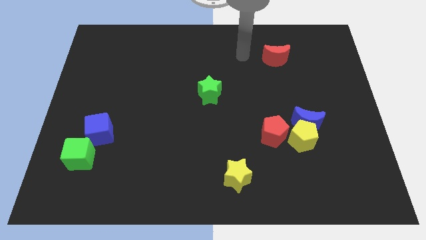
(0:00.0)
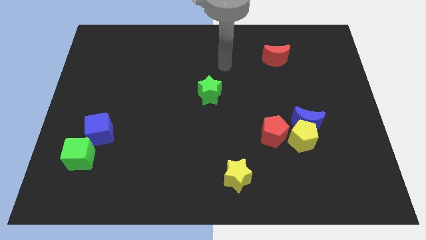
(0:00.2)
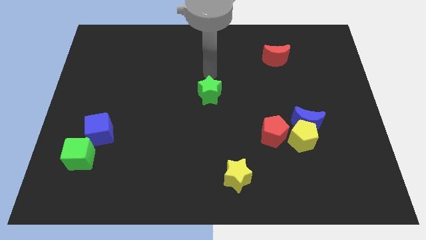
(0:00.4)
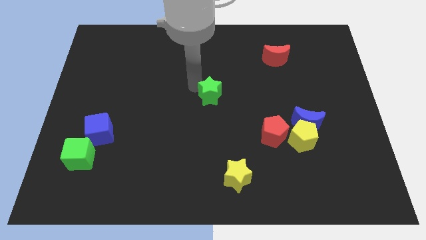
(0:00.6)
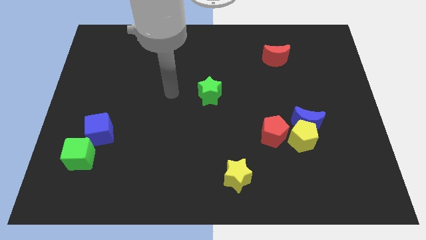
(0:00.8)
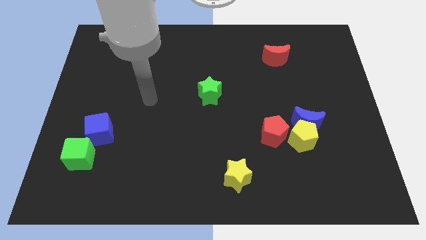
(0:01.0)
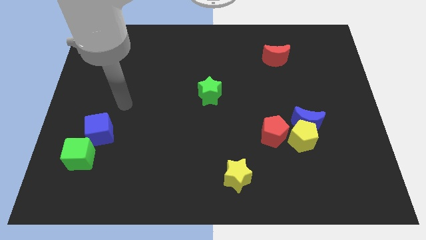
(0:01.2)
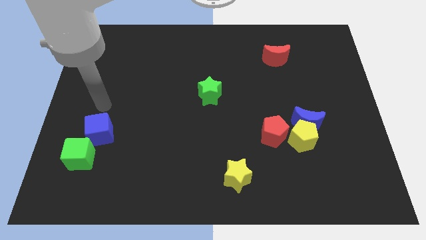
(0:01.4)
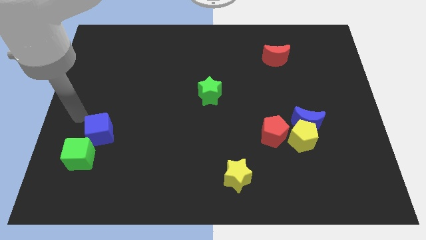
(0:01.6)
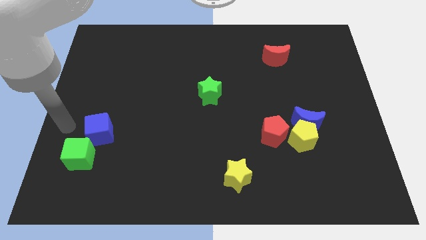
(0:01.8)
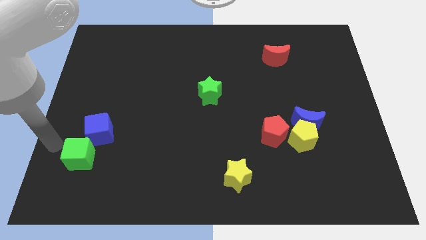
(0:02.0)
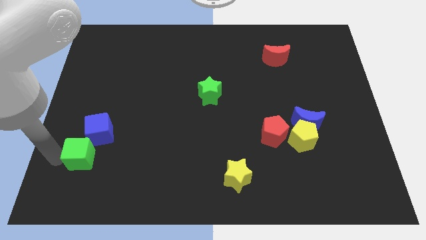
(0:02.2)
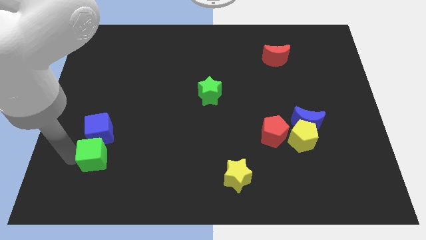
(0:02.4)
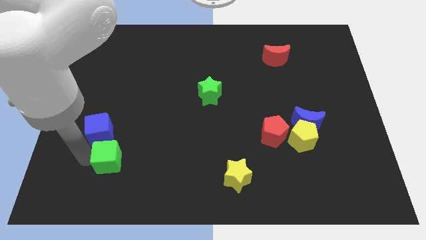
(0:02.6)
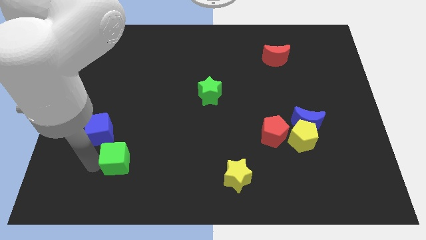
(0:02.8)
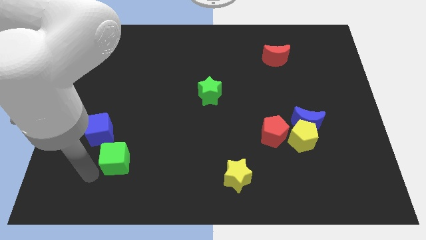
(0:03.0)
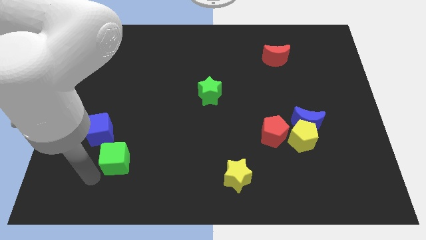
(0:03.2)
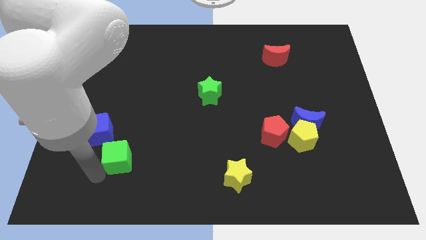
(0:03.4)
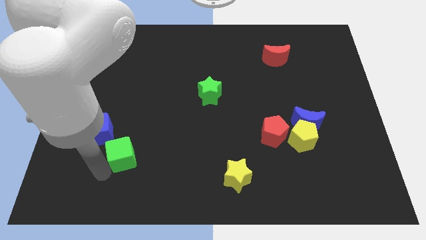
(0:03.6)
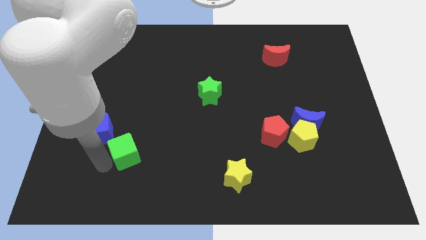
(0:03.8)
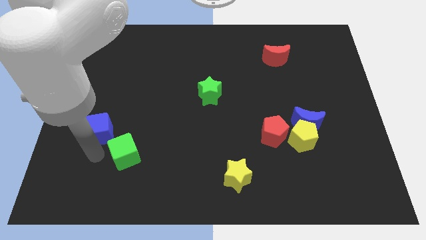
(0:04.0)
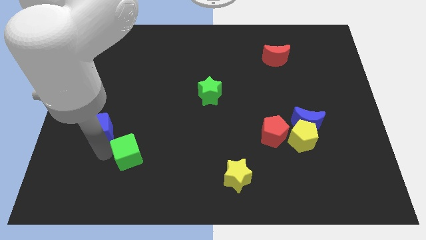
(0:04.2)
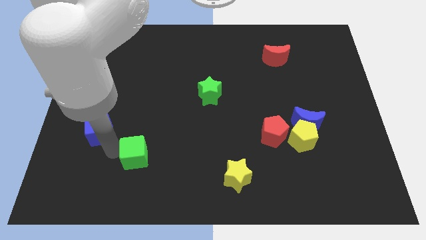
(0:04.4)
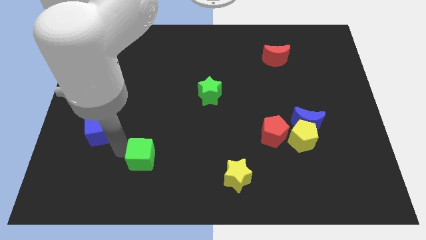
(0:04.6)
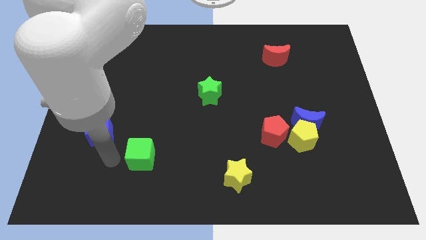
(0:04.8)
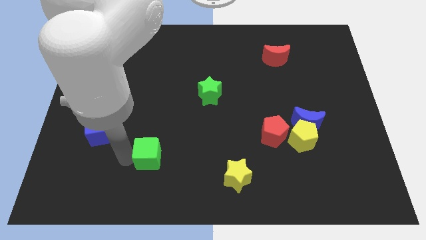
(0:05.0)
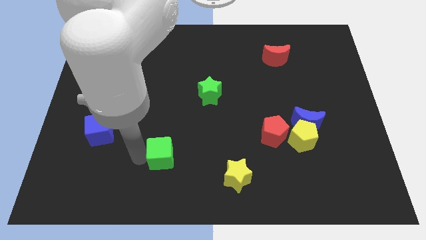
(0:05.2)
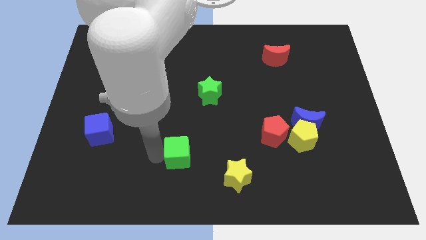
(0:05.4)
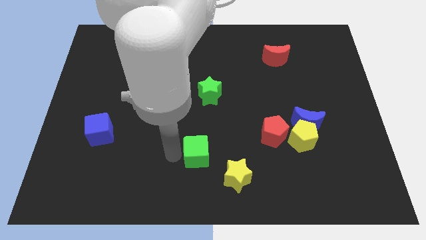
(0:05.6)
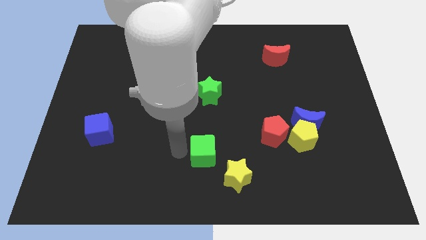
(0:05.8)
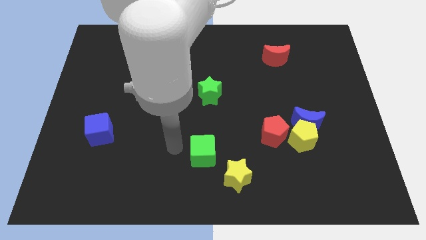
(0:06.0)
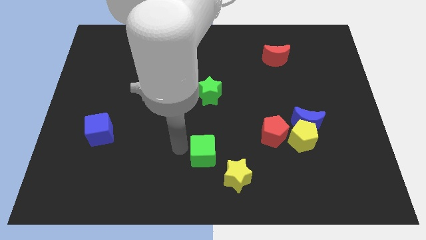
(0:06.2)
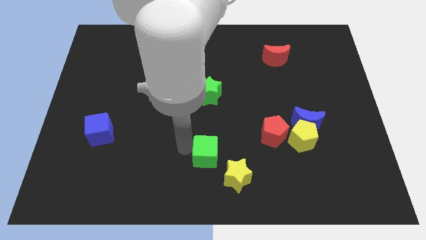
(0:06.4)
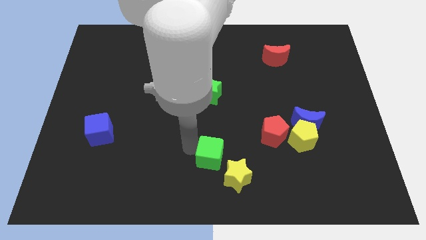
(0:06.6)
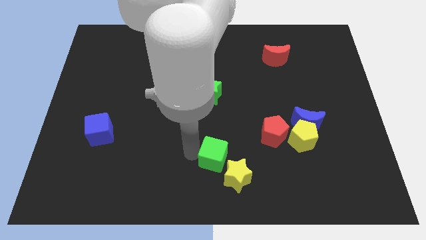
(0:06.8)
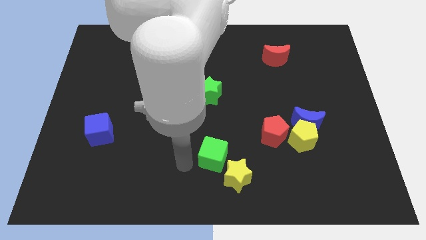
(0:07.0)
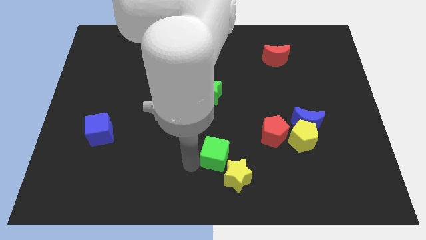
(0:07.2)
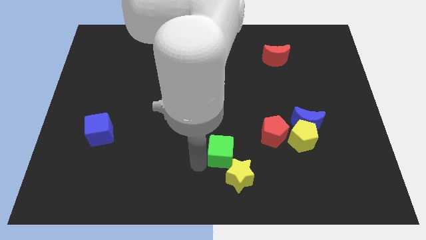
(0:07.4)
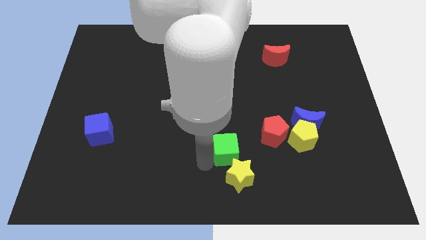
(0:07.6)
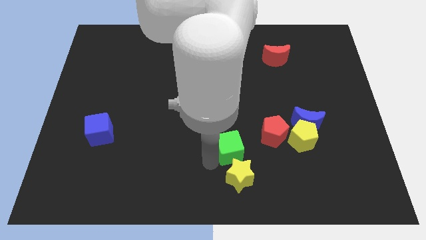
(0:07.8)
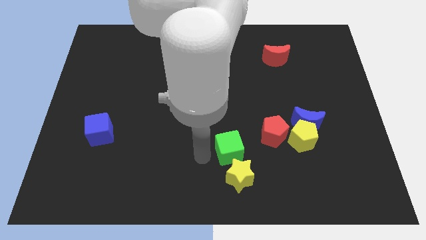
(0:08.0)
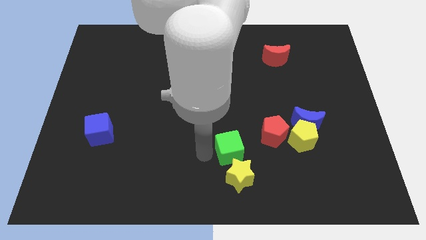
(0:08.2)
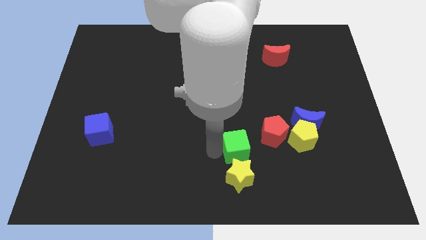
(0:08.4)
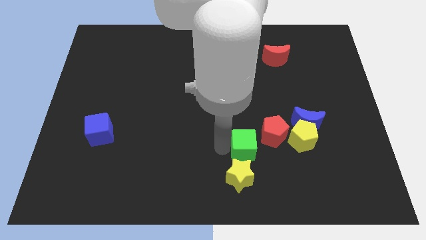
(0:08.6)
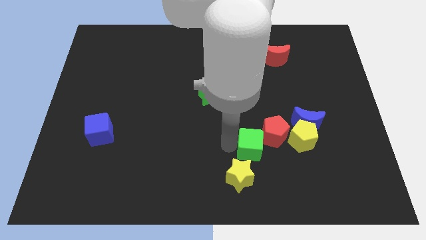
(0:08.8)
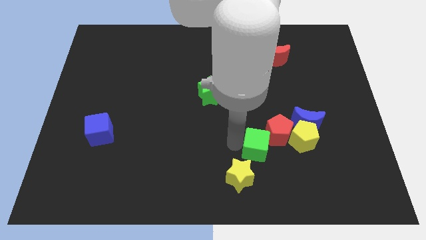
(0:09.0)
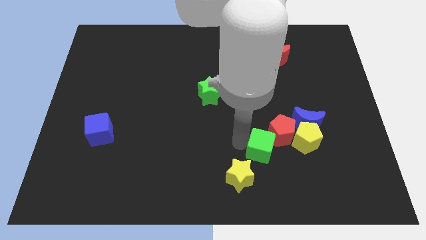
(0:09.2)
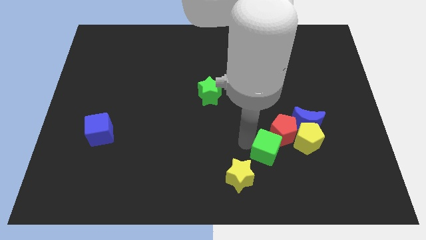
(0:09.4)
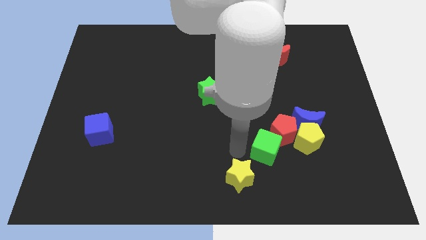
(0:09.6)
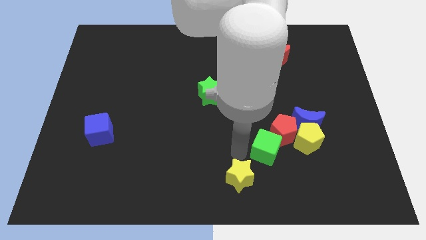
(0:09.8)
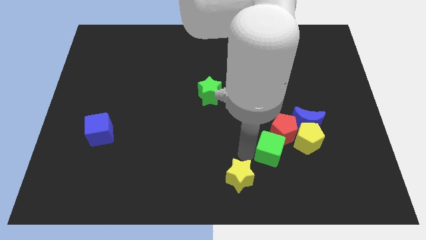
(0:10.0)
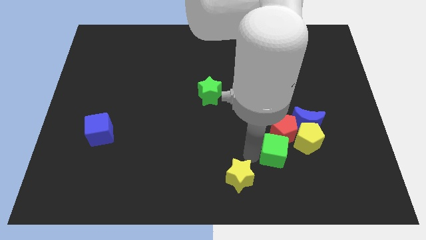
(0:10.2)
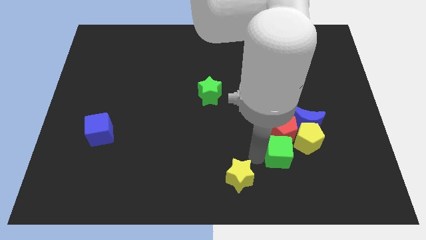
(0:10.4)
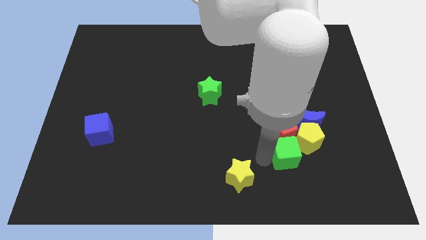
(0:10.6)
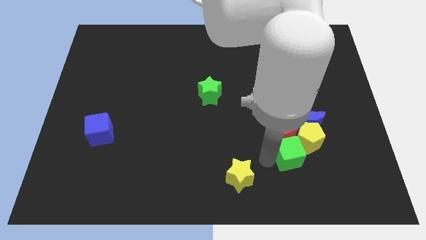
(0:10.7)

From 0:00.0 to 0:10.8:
move the green cube towards the yellow pentagon

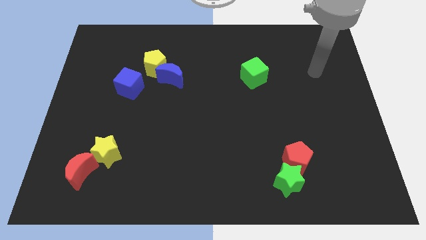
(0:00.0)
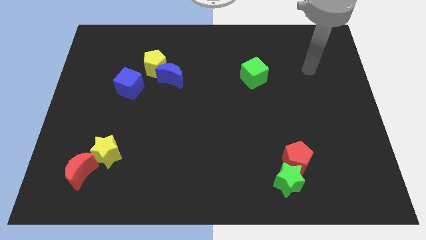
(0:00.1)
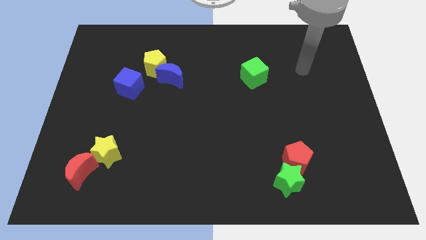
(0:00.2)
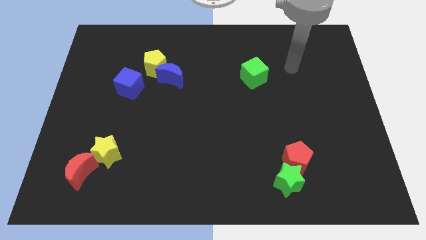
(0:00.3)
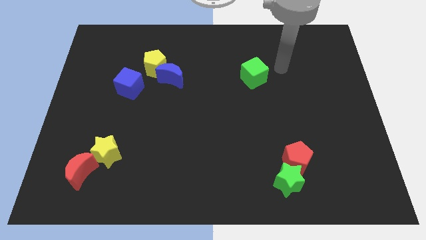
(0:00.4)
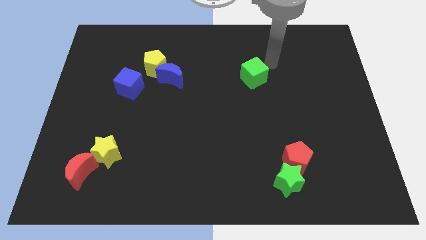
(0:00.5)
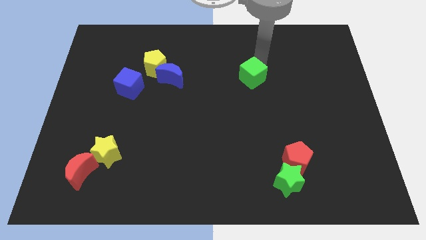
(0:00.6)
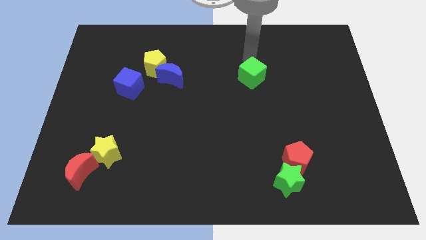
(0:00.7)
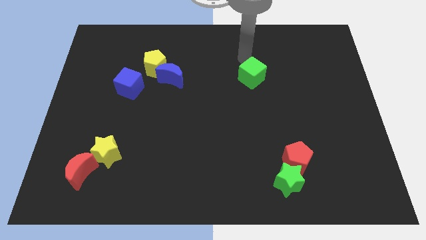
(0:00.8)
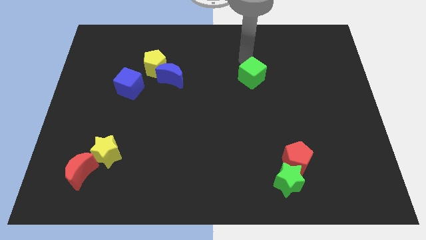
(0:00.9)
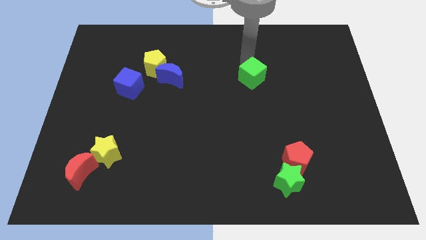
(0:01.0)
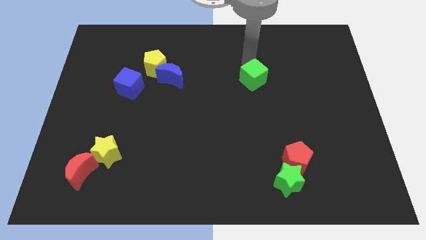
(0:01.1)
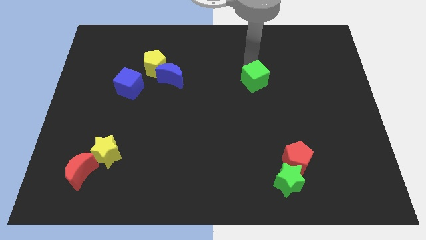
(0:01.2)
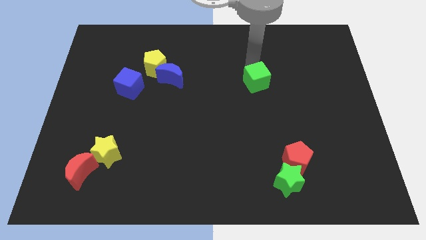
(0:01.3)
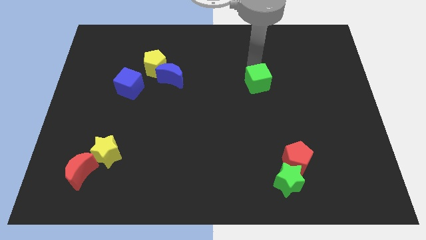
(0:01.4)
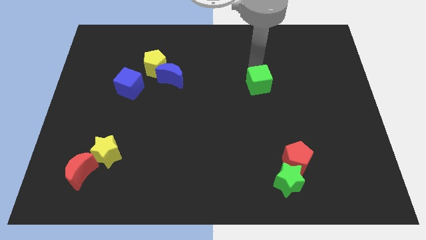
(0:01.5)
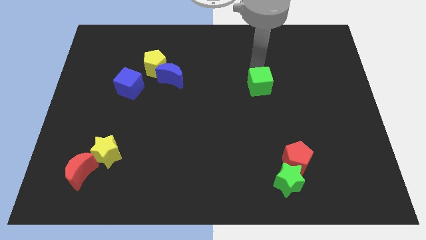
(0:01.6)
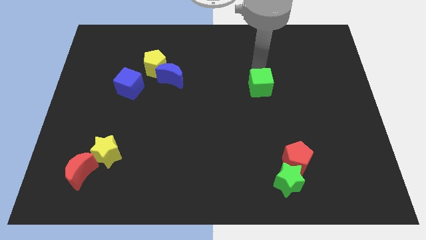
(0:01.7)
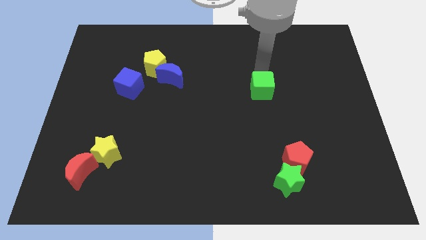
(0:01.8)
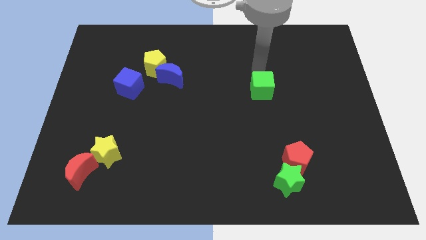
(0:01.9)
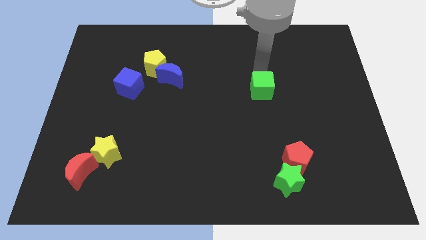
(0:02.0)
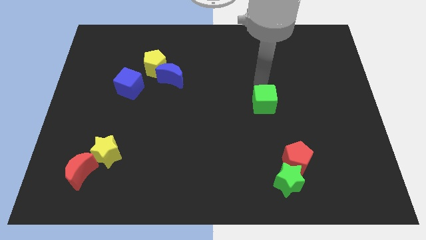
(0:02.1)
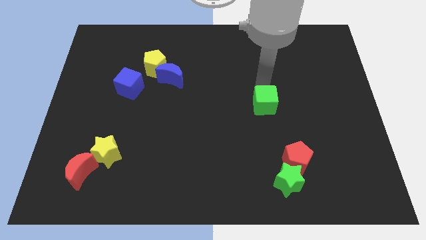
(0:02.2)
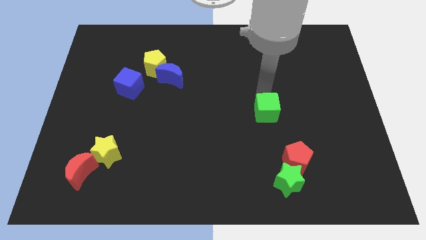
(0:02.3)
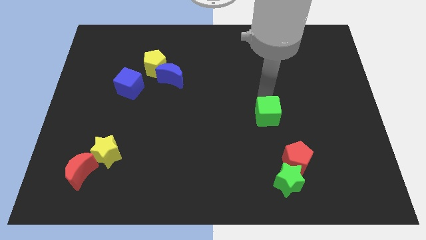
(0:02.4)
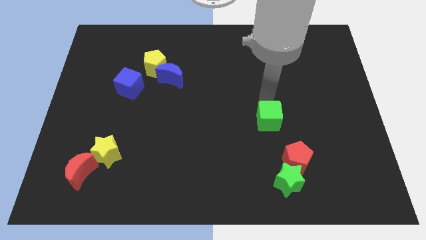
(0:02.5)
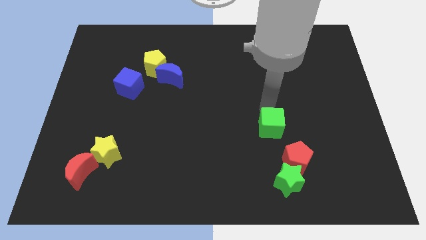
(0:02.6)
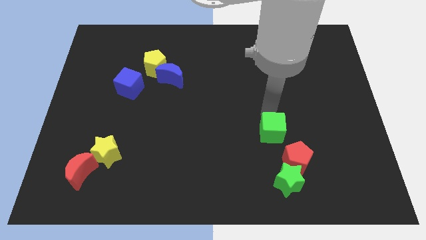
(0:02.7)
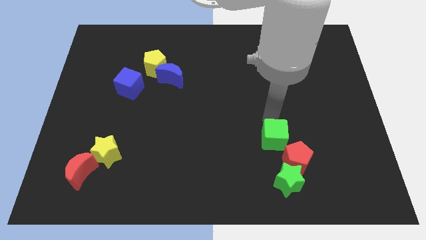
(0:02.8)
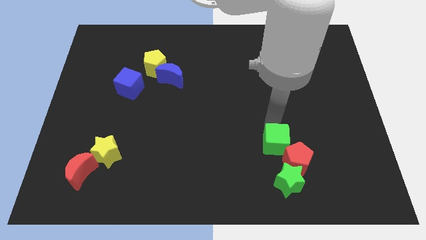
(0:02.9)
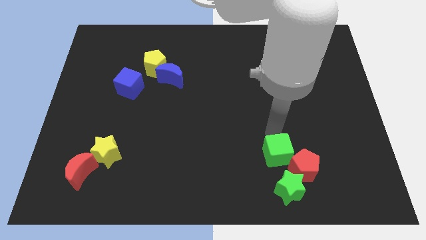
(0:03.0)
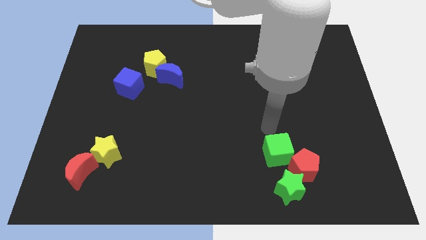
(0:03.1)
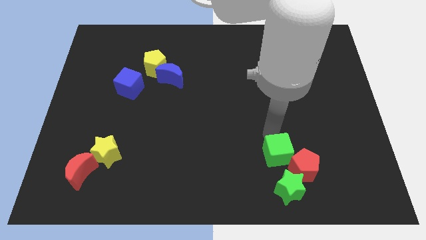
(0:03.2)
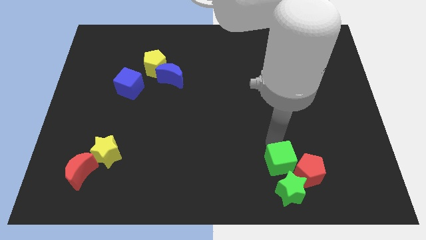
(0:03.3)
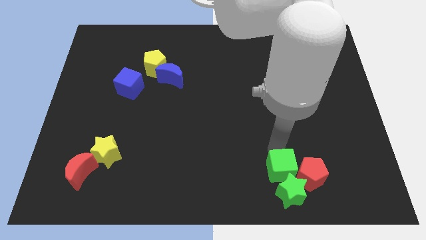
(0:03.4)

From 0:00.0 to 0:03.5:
slide the green cube close to the green star
